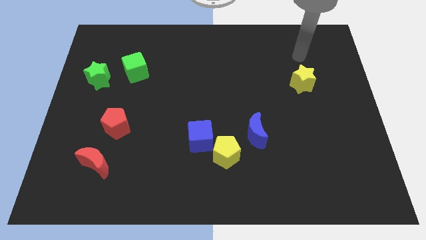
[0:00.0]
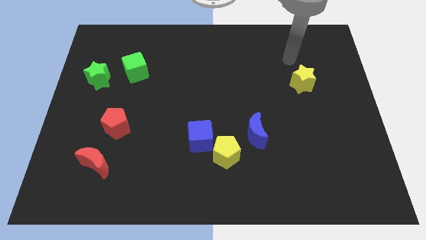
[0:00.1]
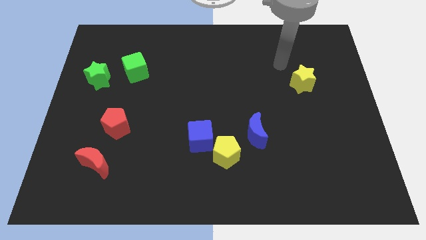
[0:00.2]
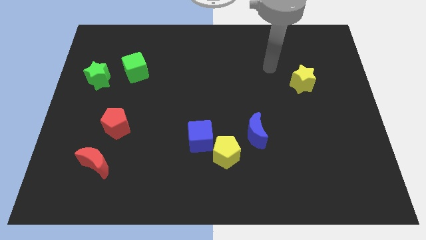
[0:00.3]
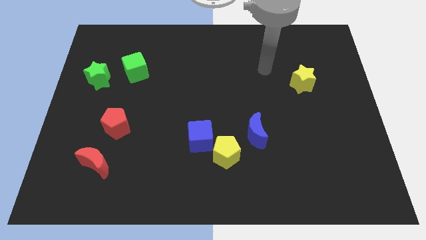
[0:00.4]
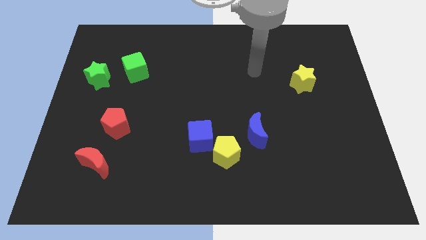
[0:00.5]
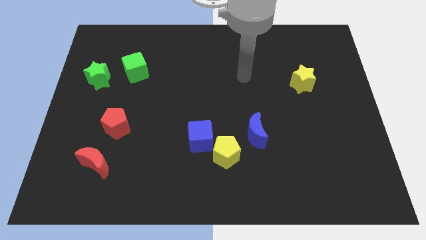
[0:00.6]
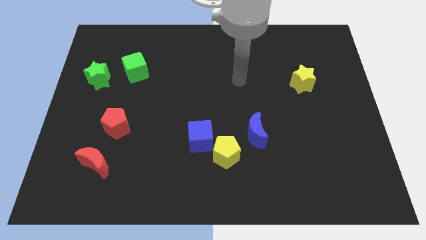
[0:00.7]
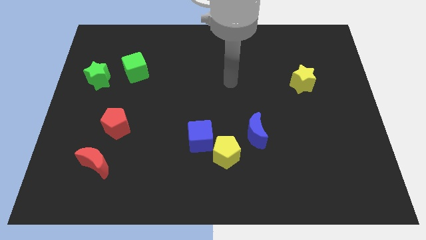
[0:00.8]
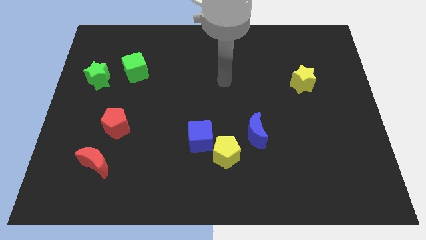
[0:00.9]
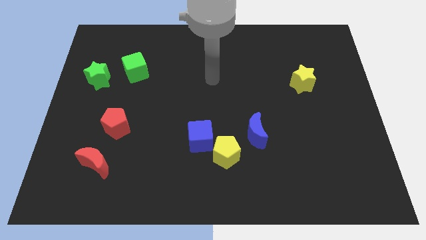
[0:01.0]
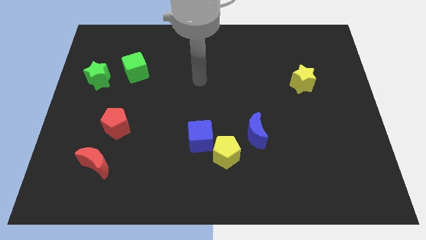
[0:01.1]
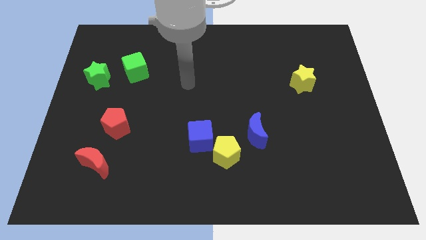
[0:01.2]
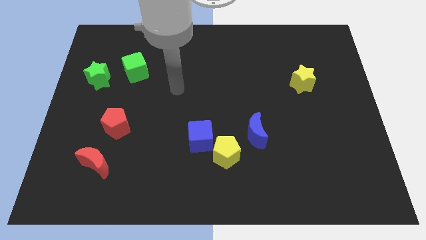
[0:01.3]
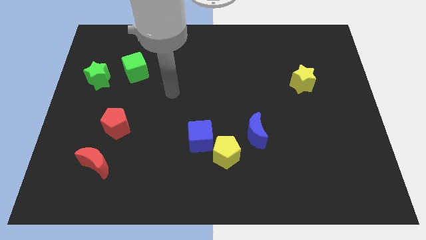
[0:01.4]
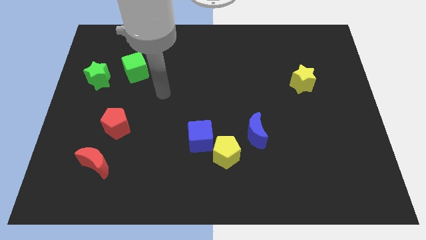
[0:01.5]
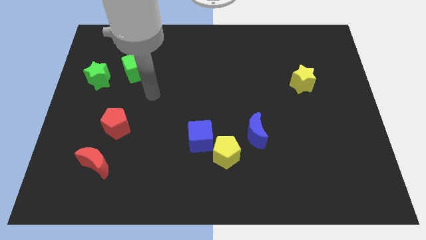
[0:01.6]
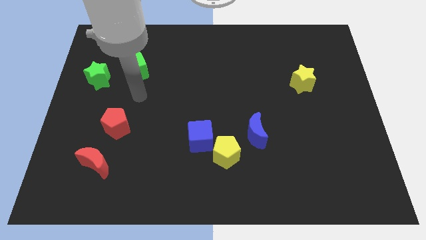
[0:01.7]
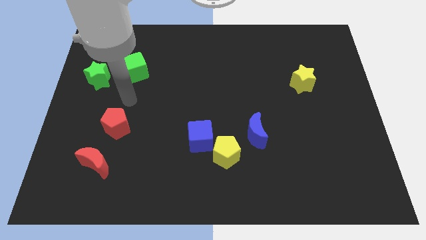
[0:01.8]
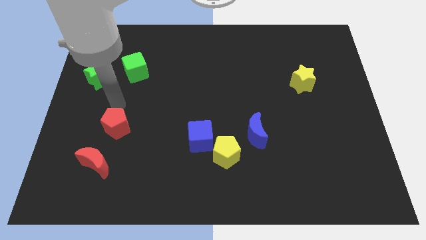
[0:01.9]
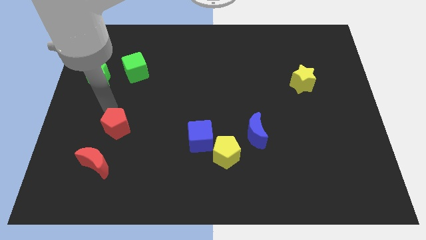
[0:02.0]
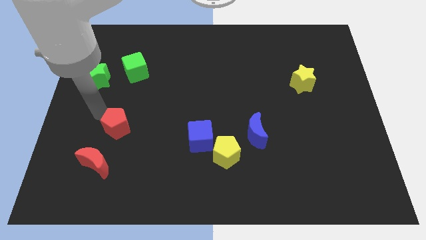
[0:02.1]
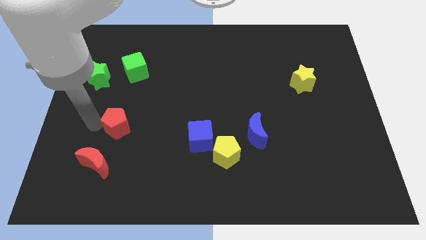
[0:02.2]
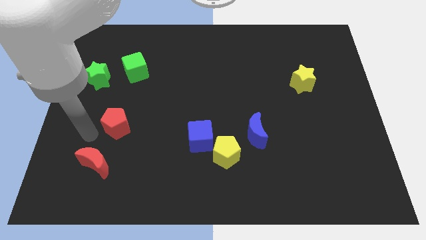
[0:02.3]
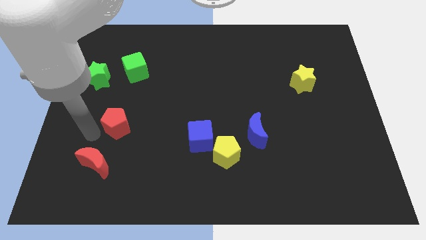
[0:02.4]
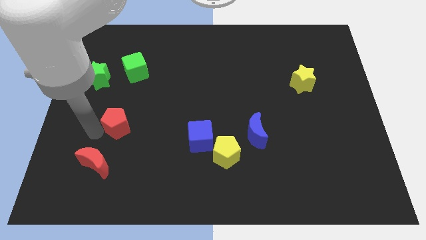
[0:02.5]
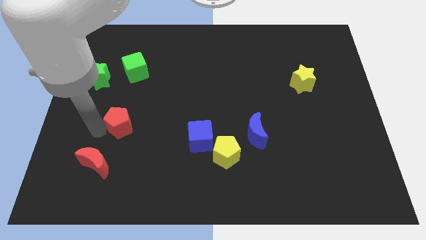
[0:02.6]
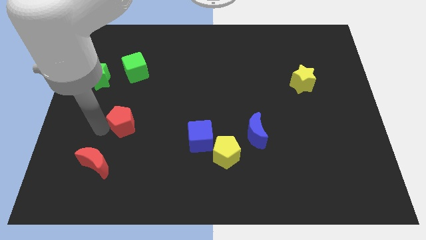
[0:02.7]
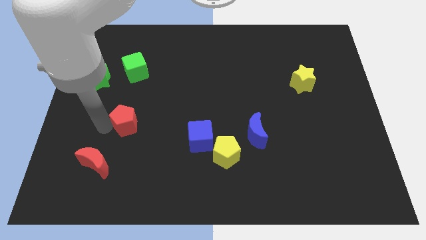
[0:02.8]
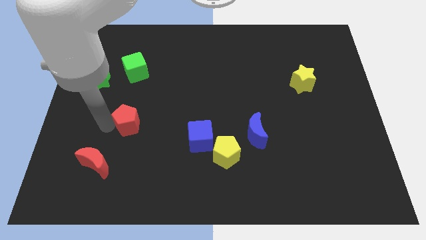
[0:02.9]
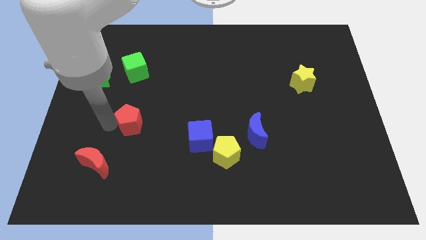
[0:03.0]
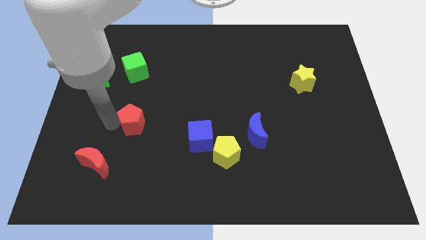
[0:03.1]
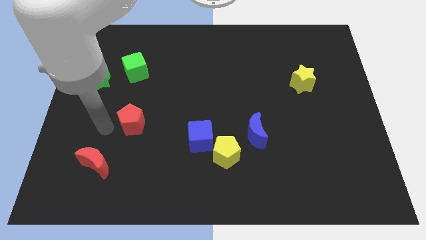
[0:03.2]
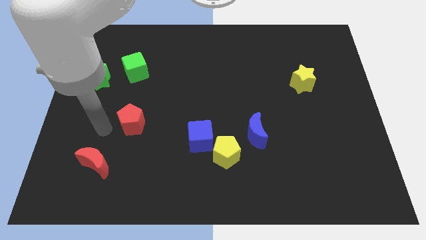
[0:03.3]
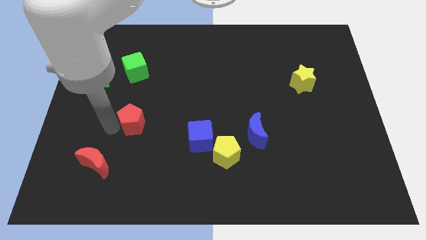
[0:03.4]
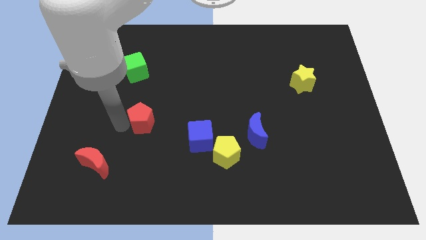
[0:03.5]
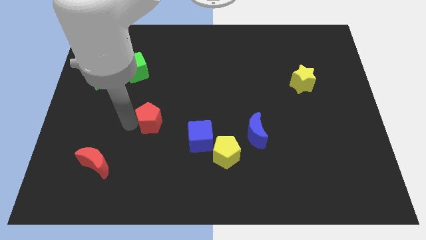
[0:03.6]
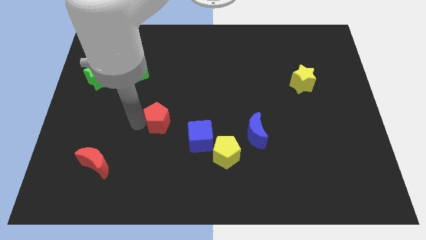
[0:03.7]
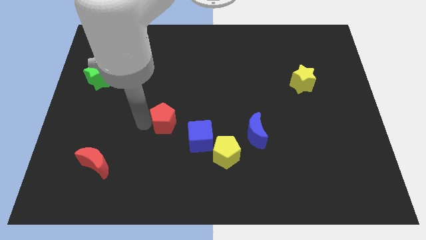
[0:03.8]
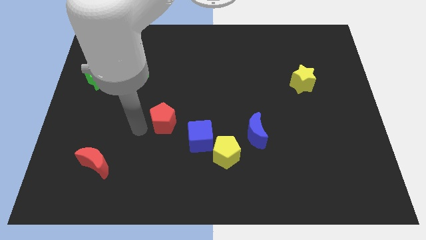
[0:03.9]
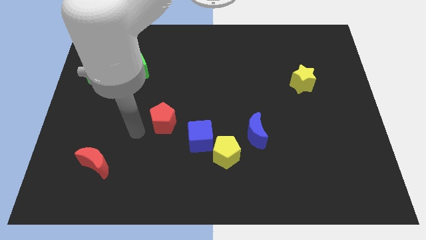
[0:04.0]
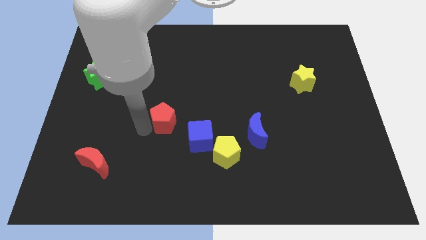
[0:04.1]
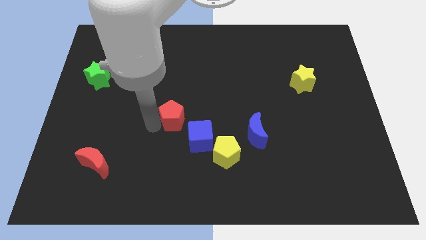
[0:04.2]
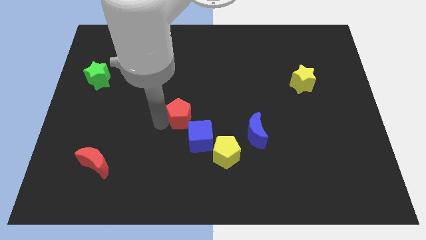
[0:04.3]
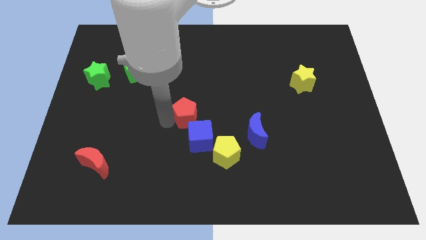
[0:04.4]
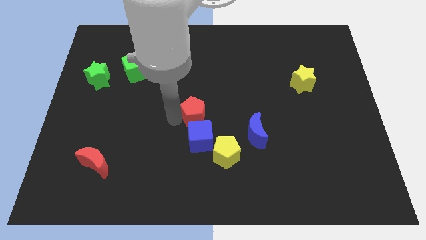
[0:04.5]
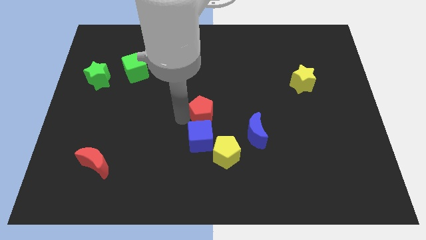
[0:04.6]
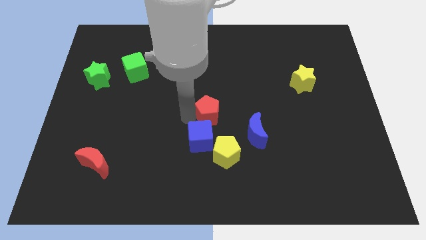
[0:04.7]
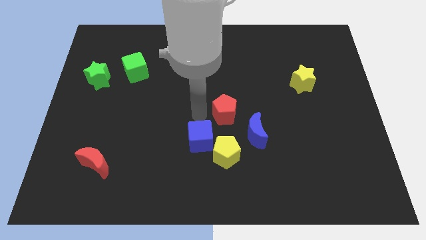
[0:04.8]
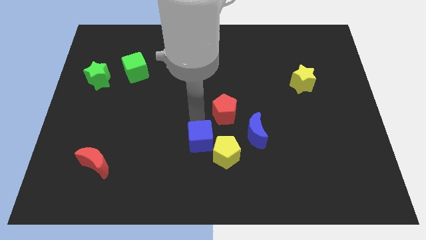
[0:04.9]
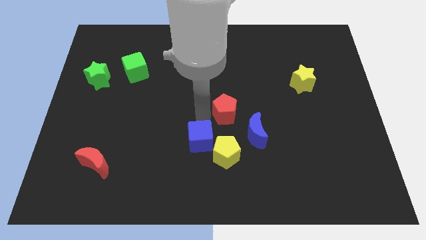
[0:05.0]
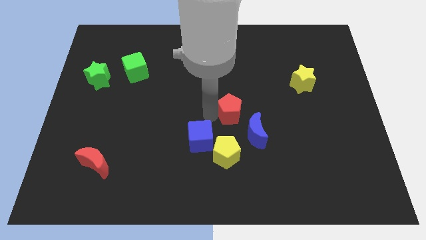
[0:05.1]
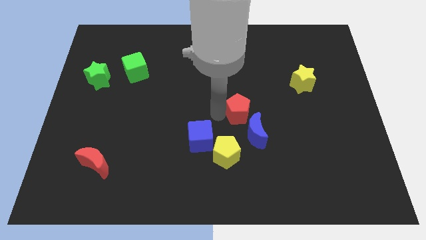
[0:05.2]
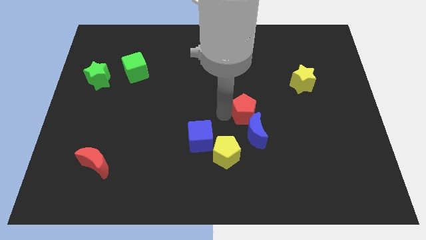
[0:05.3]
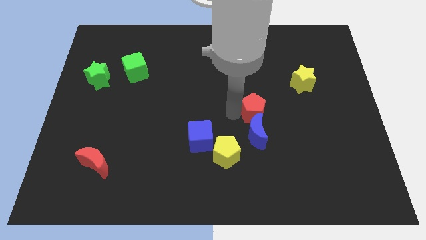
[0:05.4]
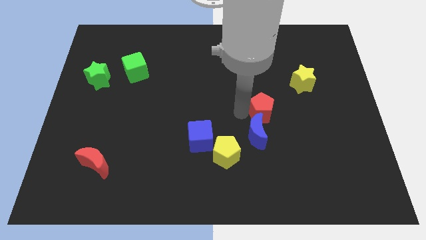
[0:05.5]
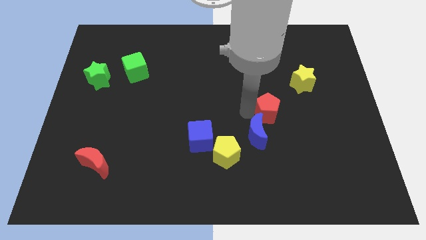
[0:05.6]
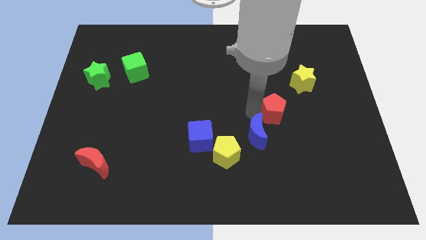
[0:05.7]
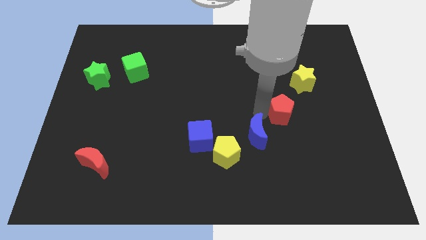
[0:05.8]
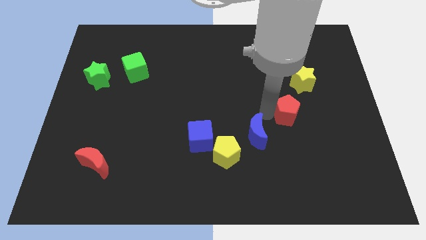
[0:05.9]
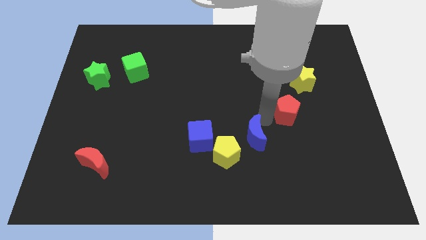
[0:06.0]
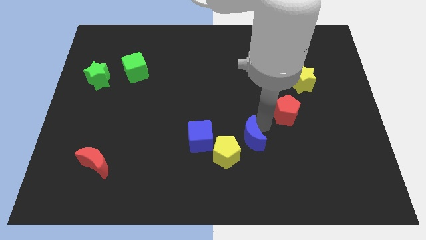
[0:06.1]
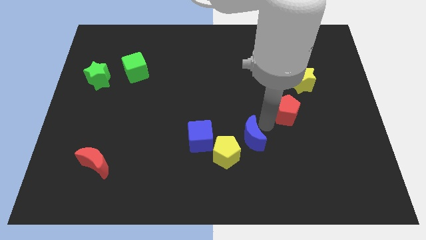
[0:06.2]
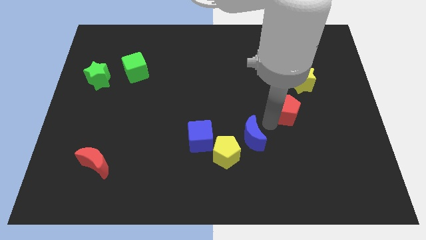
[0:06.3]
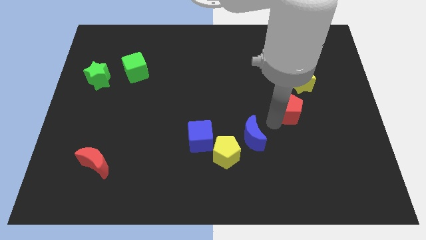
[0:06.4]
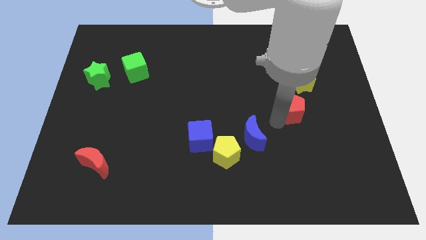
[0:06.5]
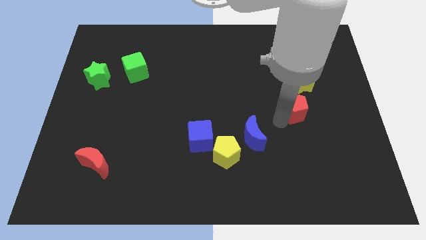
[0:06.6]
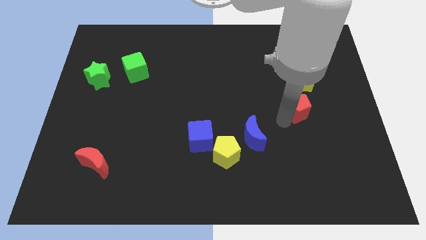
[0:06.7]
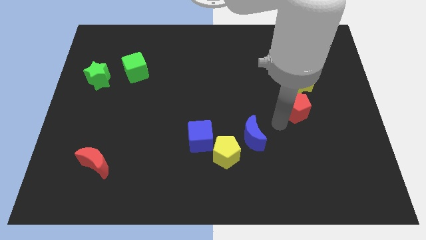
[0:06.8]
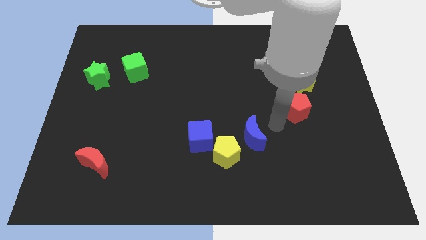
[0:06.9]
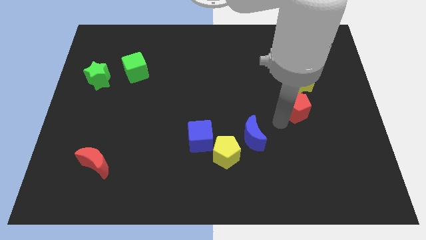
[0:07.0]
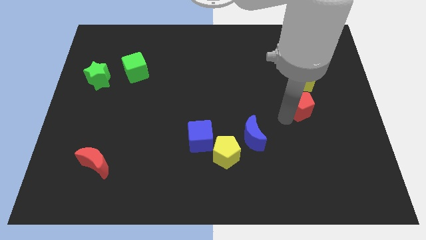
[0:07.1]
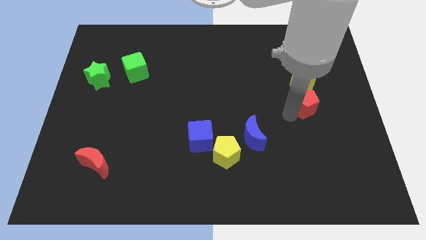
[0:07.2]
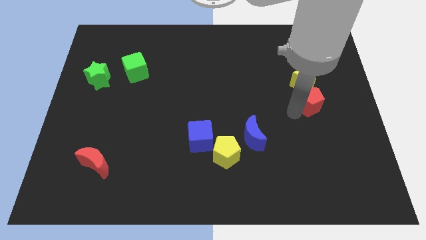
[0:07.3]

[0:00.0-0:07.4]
slide the red pentagon diagonally down and to the right of the yellow star
